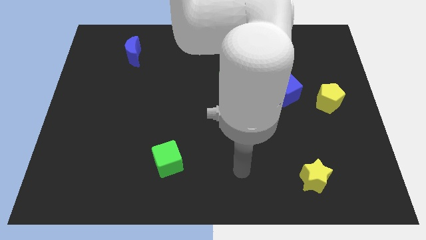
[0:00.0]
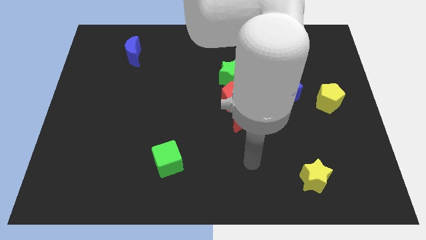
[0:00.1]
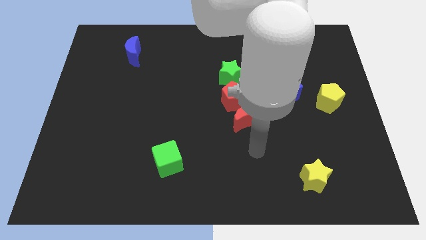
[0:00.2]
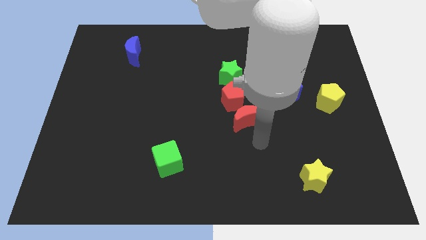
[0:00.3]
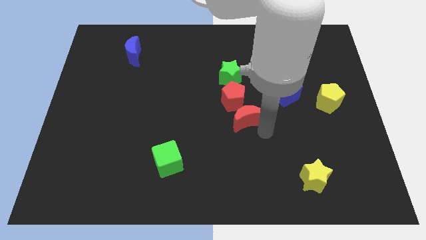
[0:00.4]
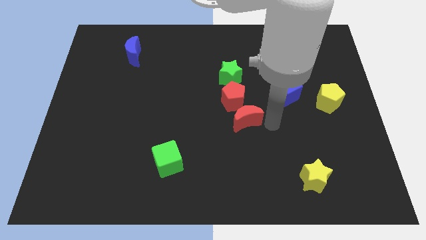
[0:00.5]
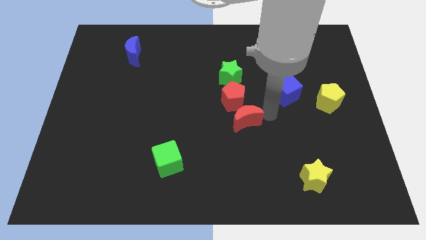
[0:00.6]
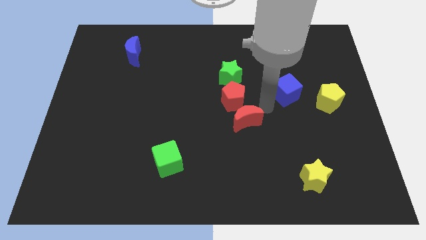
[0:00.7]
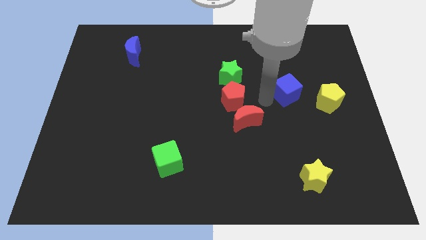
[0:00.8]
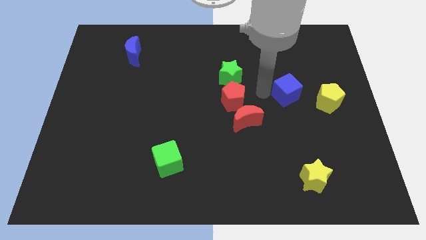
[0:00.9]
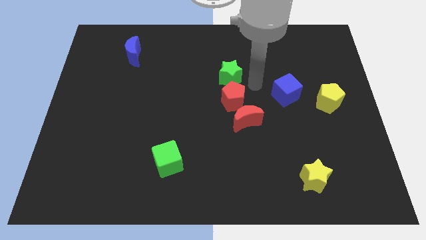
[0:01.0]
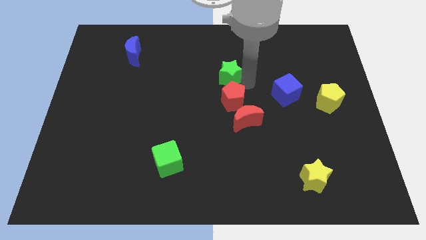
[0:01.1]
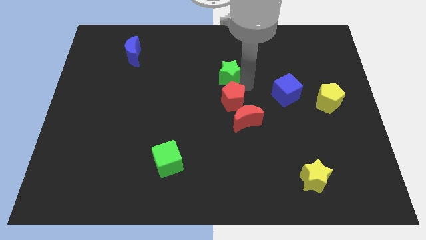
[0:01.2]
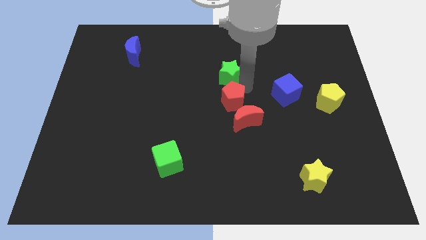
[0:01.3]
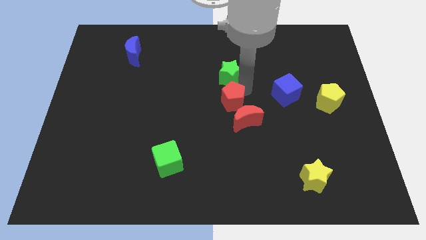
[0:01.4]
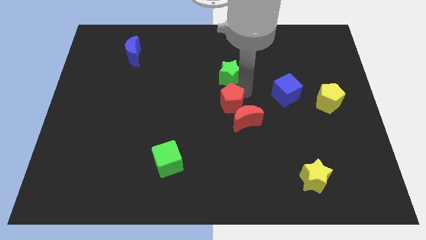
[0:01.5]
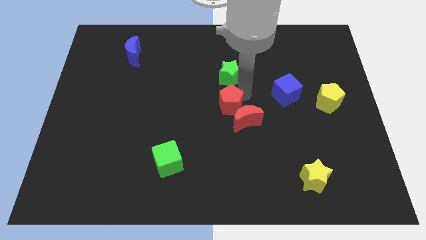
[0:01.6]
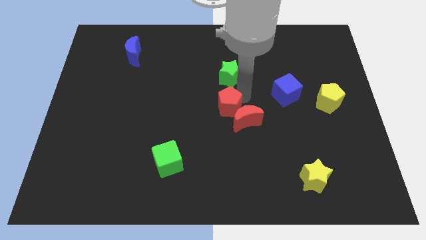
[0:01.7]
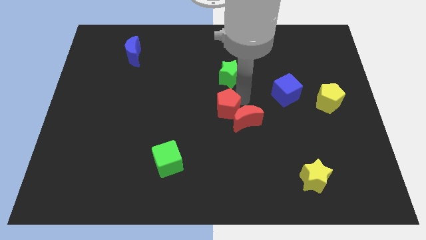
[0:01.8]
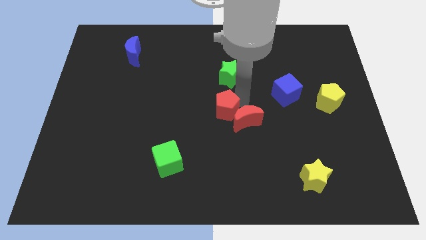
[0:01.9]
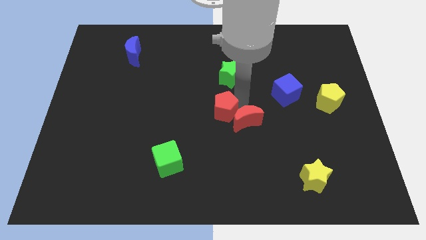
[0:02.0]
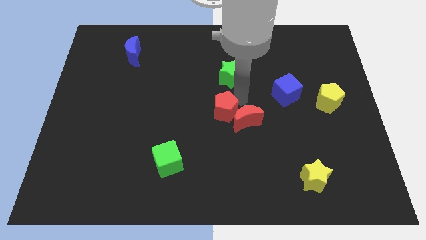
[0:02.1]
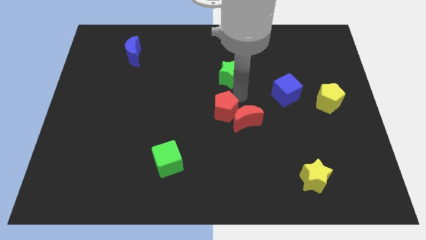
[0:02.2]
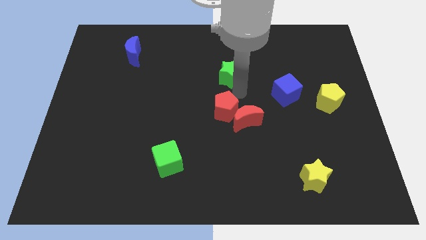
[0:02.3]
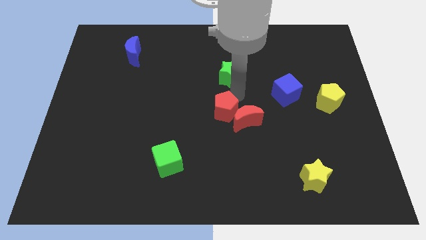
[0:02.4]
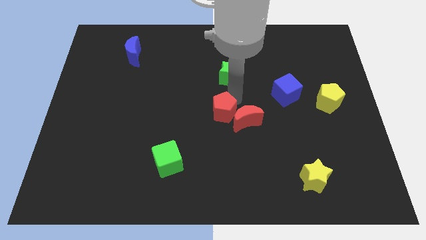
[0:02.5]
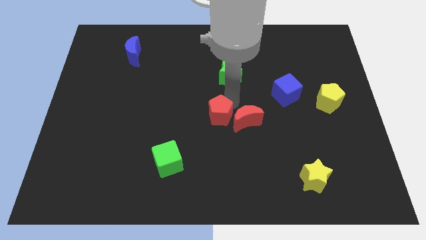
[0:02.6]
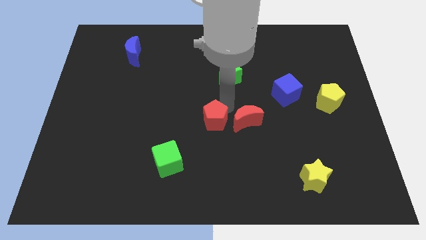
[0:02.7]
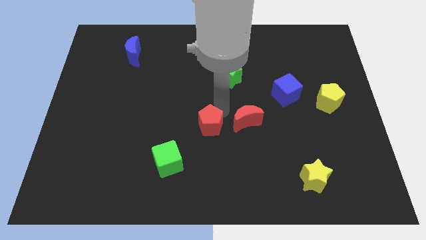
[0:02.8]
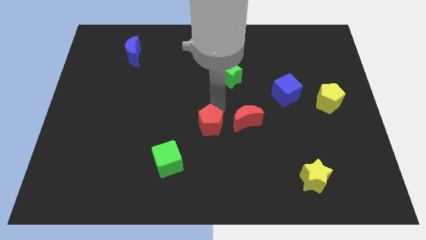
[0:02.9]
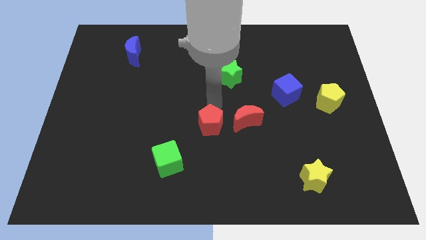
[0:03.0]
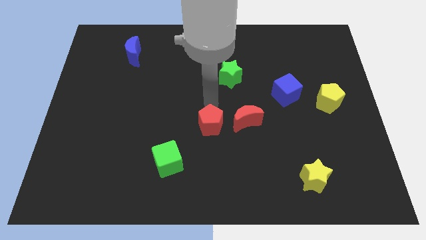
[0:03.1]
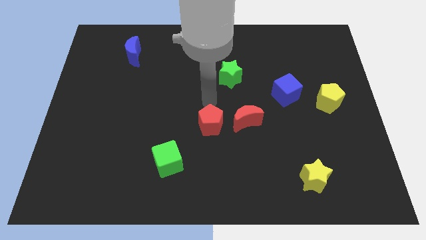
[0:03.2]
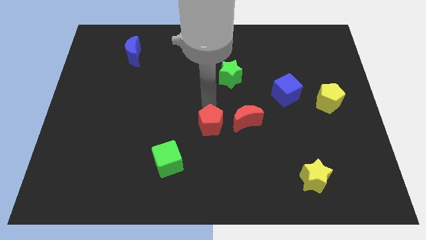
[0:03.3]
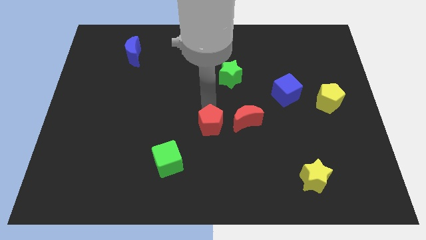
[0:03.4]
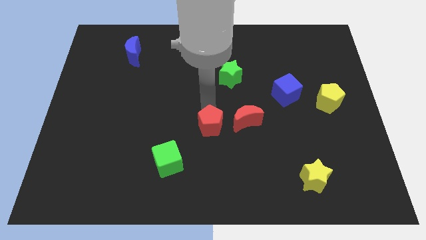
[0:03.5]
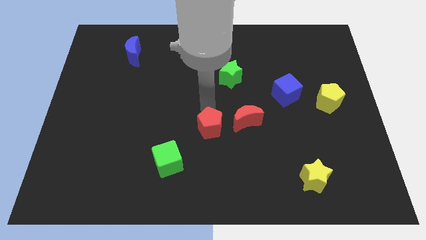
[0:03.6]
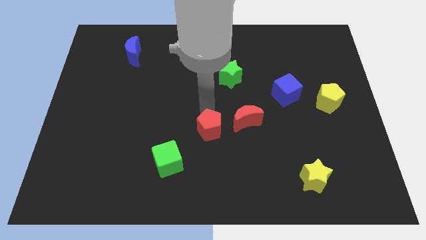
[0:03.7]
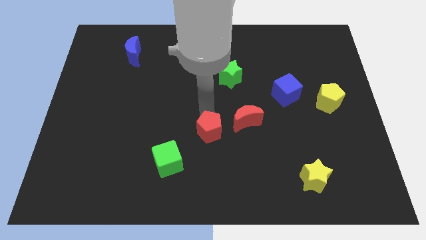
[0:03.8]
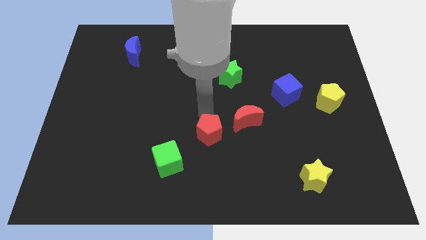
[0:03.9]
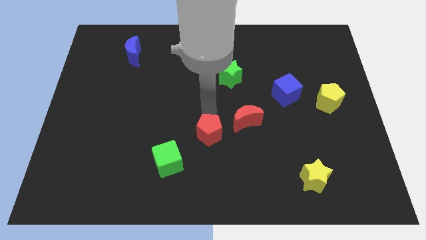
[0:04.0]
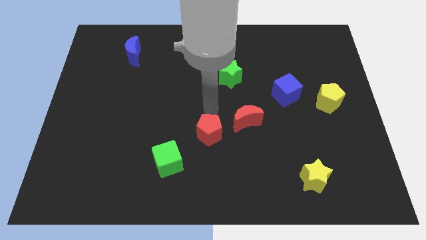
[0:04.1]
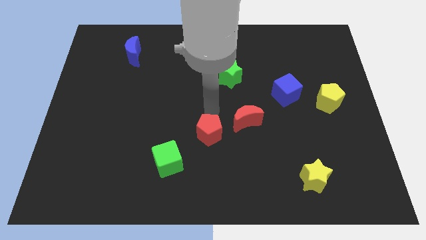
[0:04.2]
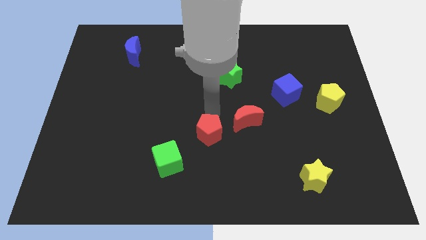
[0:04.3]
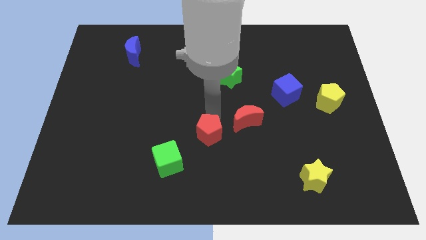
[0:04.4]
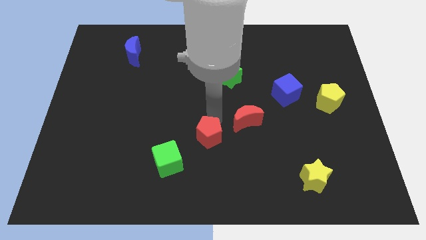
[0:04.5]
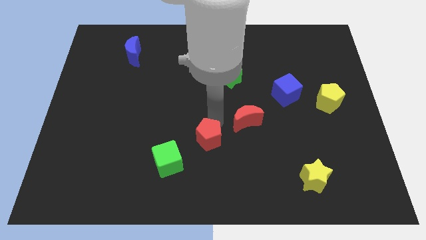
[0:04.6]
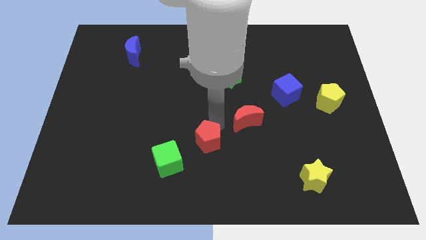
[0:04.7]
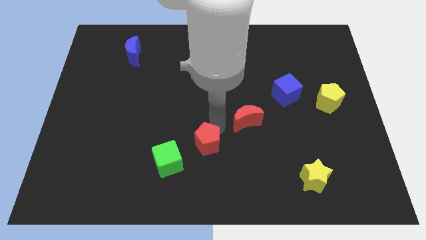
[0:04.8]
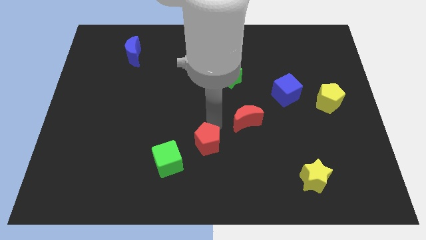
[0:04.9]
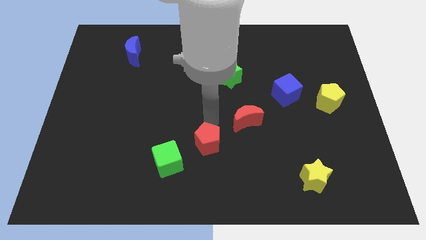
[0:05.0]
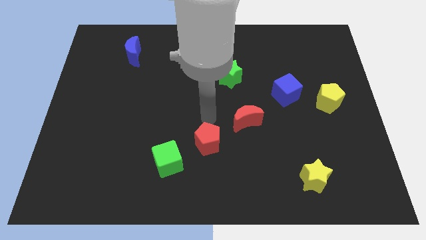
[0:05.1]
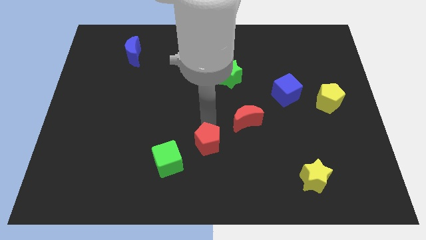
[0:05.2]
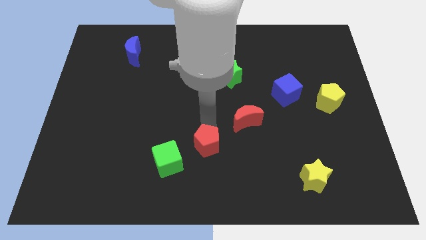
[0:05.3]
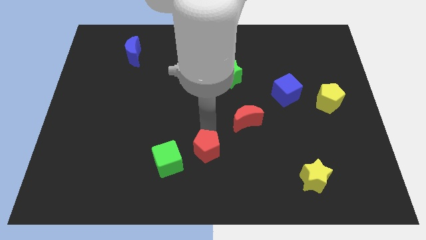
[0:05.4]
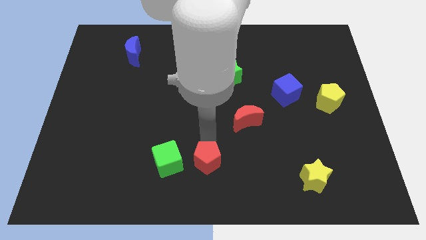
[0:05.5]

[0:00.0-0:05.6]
push the red pentagon to the bottom

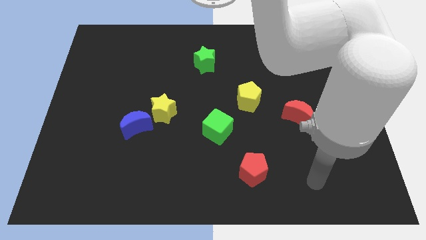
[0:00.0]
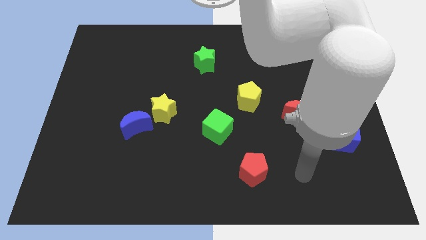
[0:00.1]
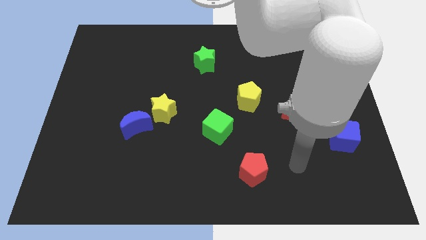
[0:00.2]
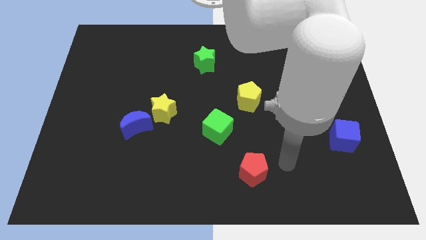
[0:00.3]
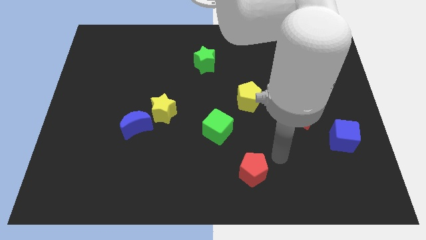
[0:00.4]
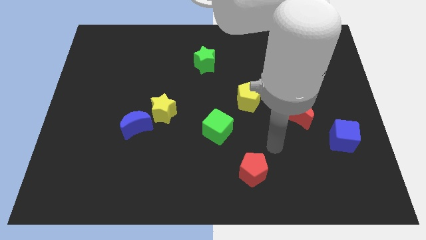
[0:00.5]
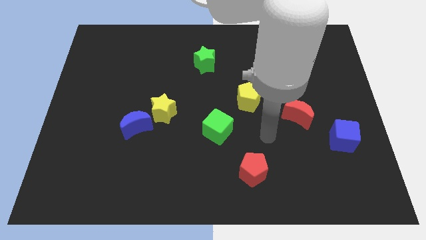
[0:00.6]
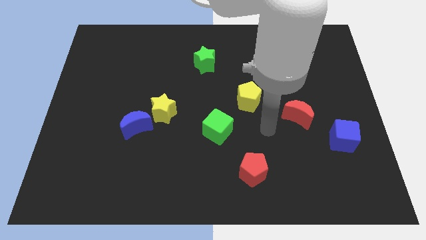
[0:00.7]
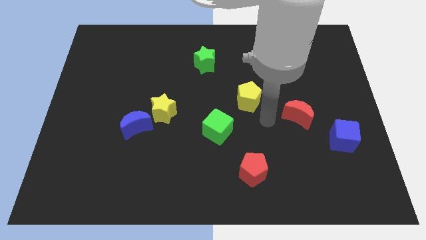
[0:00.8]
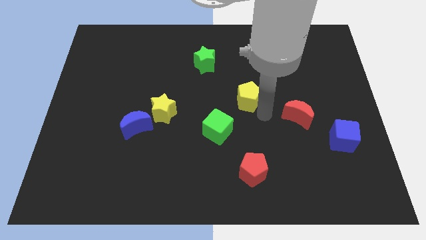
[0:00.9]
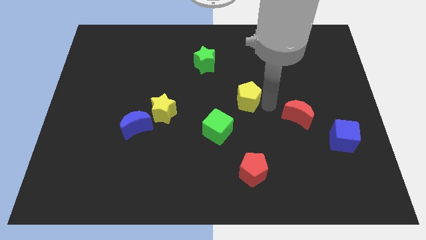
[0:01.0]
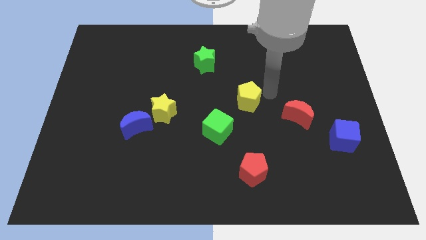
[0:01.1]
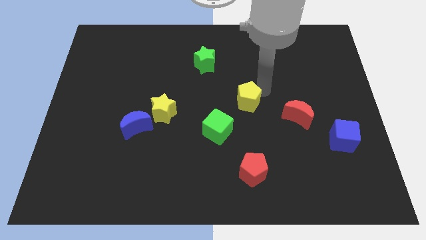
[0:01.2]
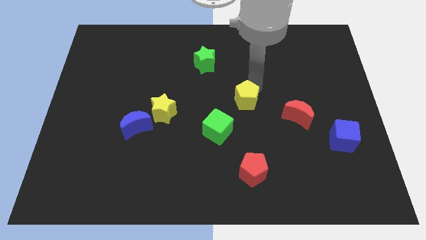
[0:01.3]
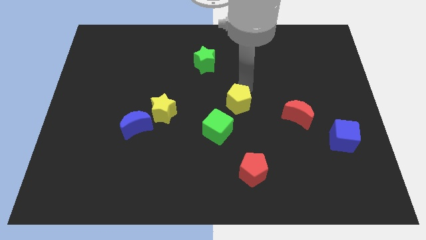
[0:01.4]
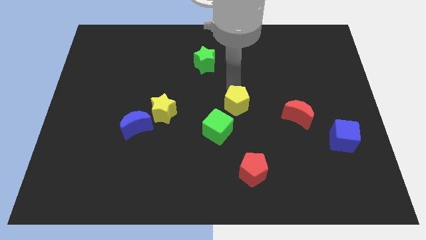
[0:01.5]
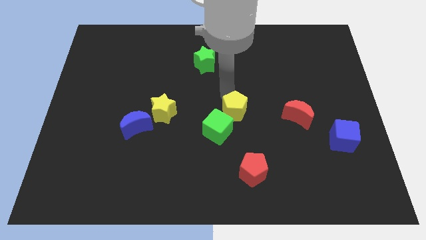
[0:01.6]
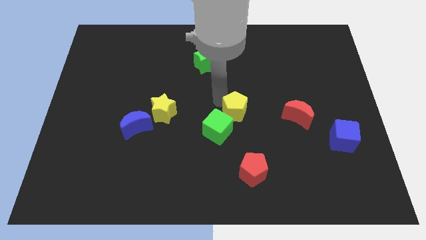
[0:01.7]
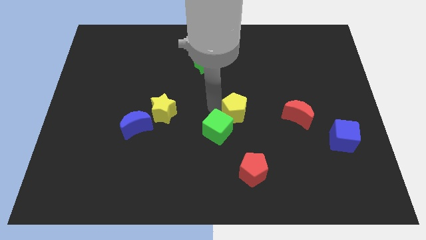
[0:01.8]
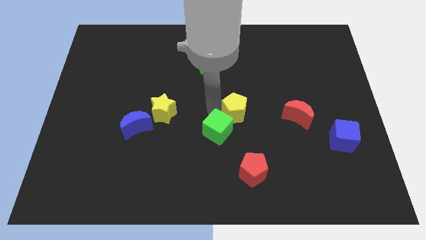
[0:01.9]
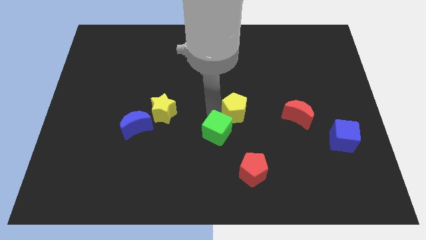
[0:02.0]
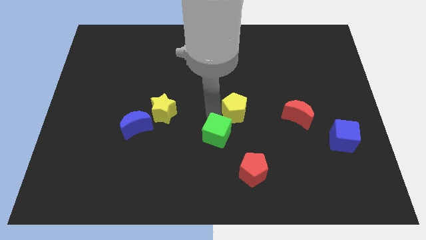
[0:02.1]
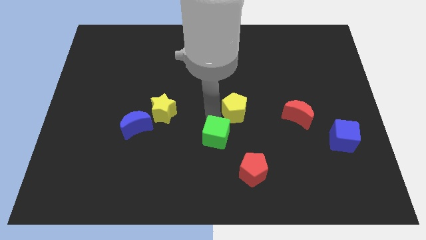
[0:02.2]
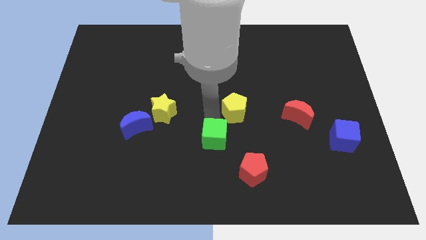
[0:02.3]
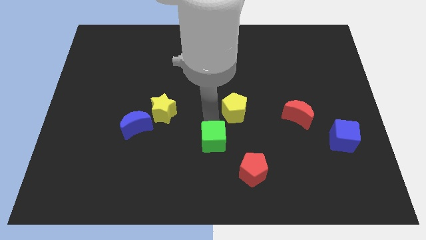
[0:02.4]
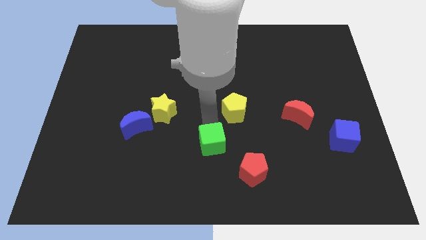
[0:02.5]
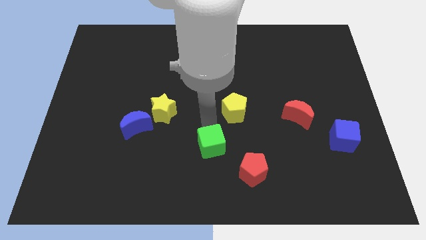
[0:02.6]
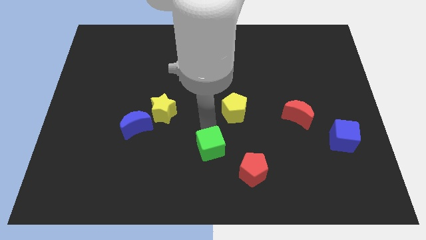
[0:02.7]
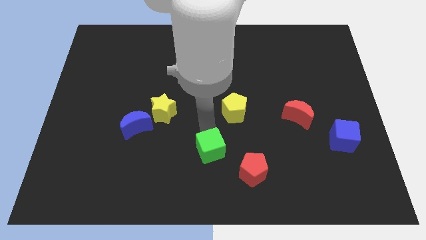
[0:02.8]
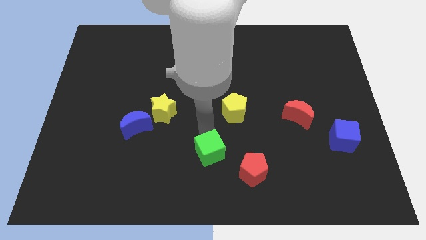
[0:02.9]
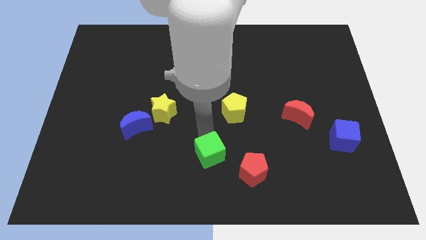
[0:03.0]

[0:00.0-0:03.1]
put the green cube to the bottom
